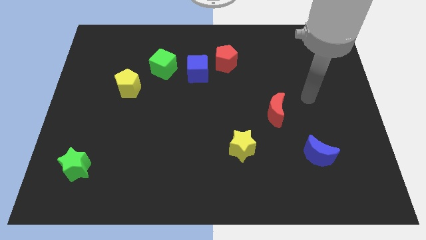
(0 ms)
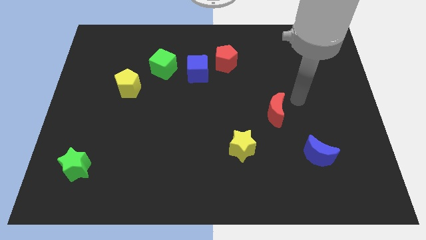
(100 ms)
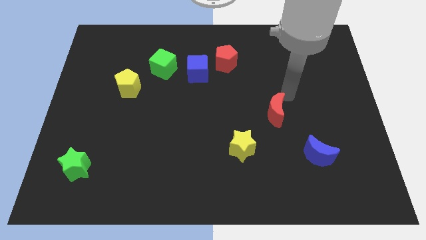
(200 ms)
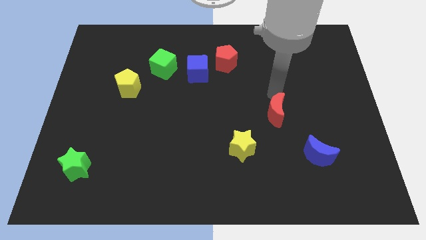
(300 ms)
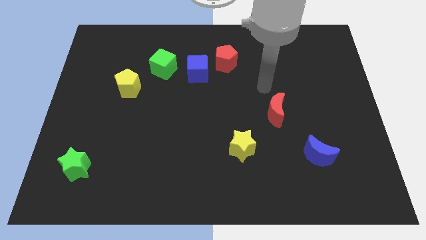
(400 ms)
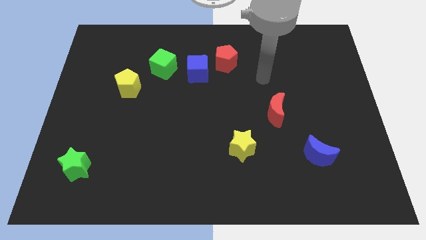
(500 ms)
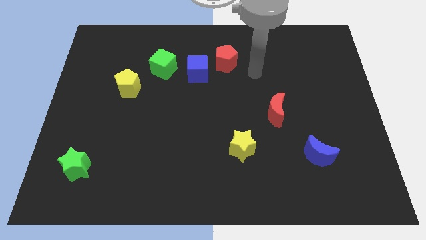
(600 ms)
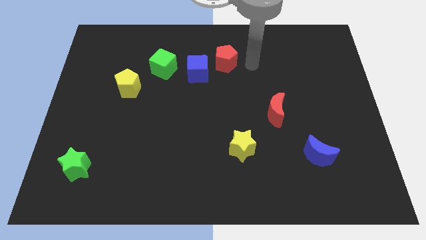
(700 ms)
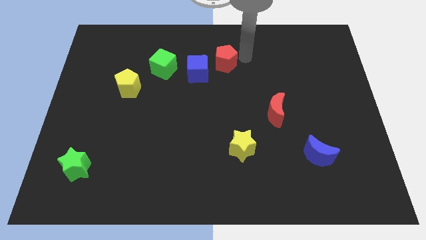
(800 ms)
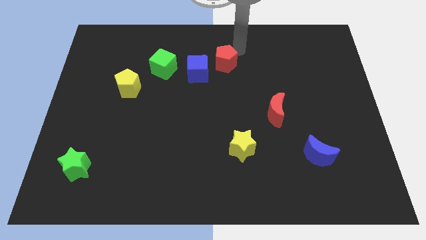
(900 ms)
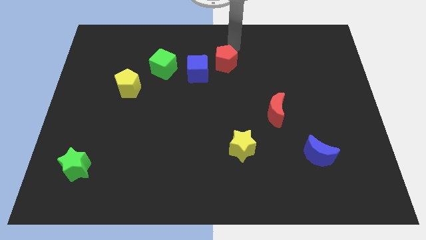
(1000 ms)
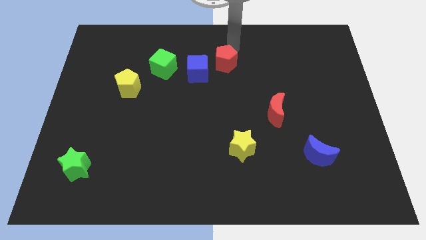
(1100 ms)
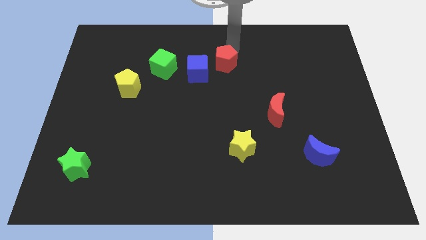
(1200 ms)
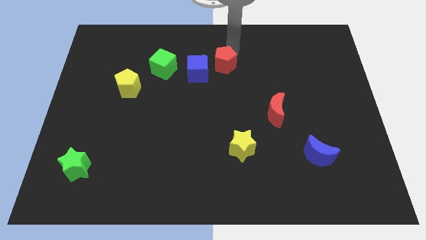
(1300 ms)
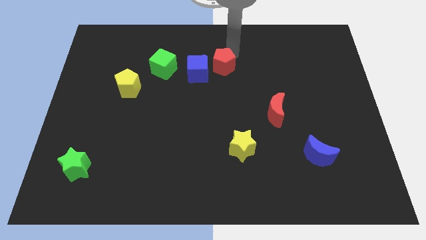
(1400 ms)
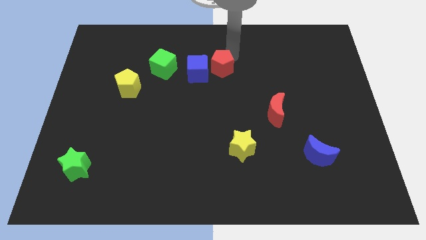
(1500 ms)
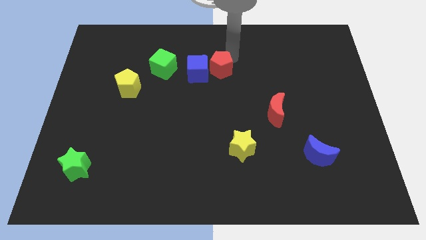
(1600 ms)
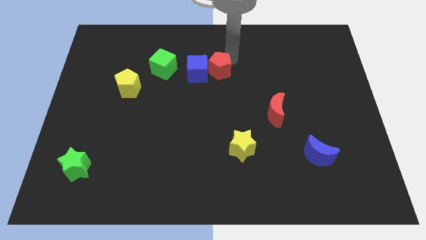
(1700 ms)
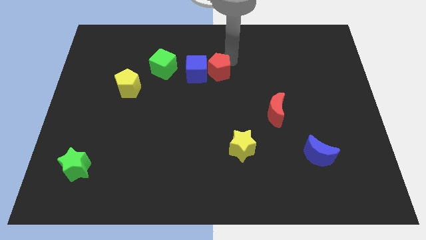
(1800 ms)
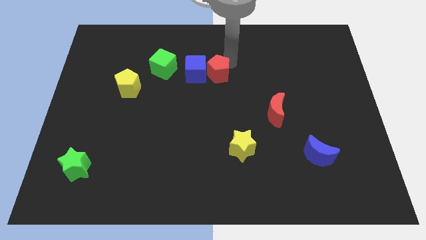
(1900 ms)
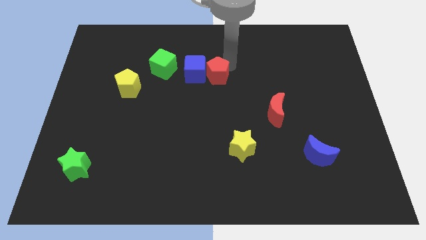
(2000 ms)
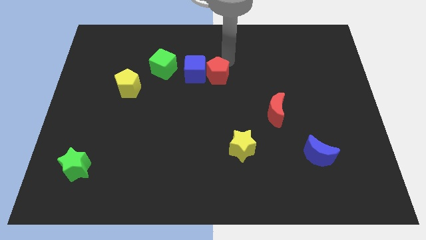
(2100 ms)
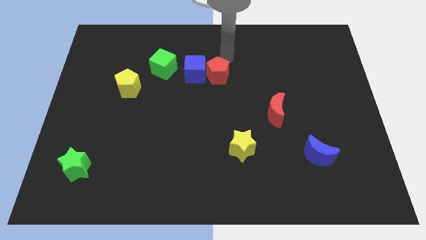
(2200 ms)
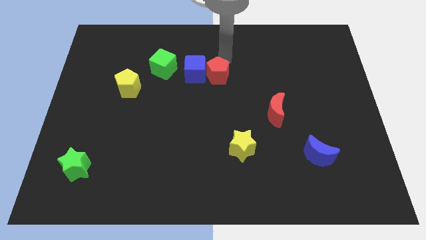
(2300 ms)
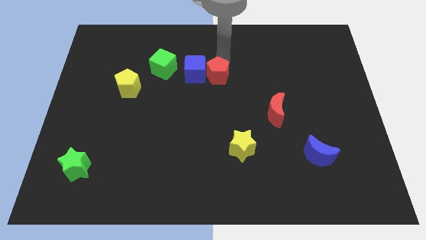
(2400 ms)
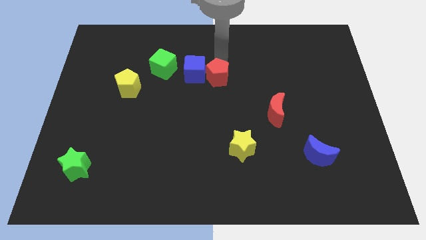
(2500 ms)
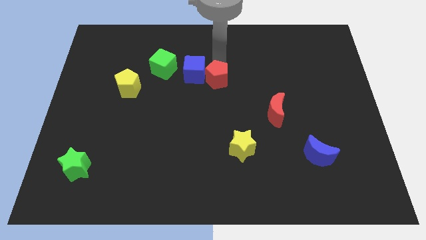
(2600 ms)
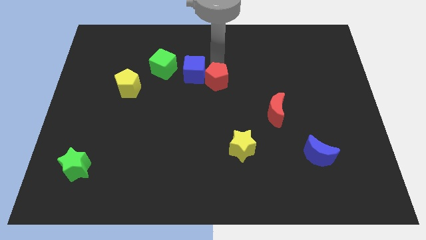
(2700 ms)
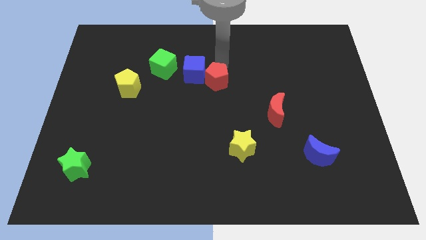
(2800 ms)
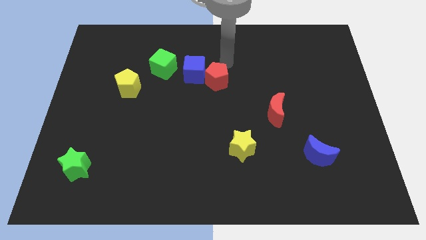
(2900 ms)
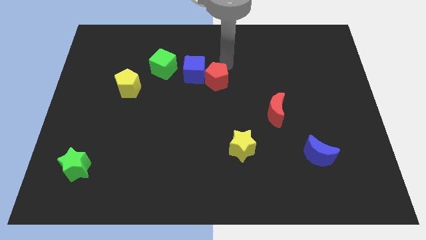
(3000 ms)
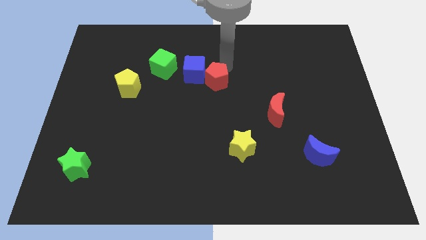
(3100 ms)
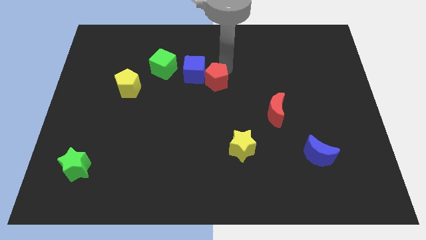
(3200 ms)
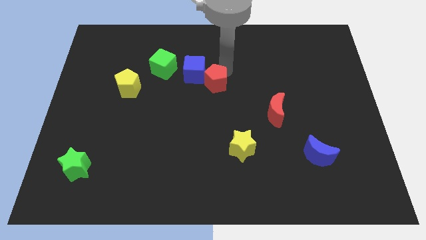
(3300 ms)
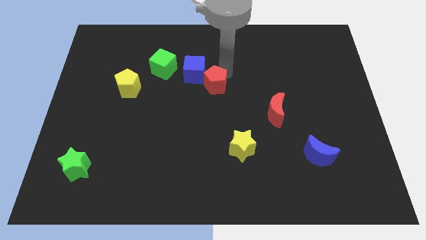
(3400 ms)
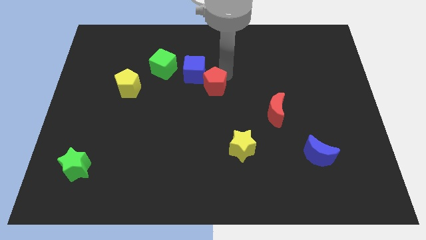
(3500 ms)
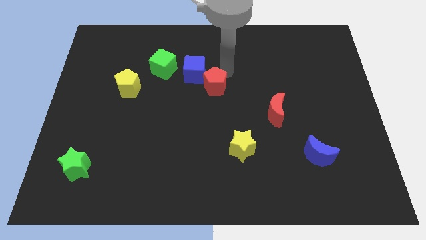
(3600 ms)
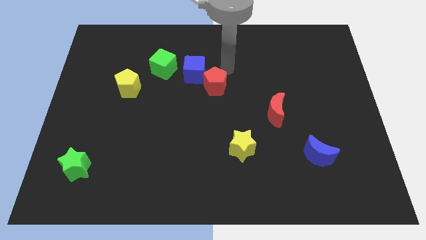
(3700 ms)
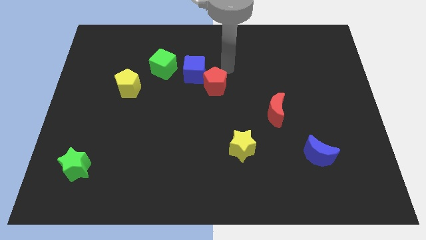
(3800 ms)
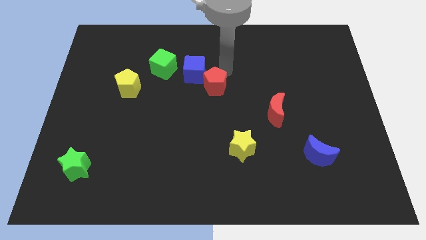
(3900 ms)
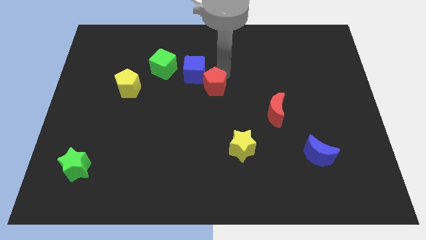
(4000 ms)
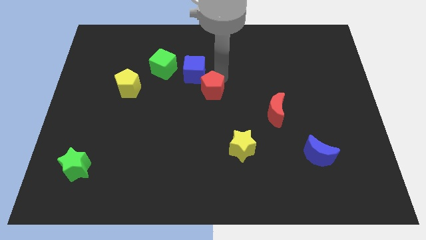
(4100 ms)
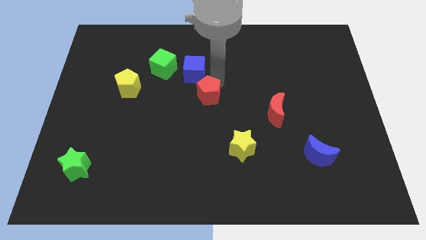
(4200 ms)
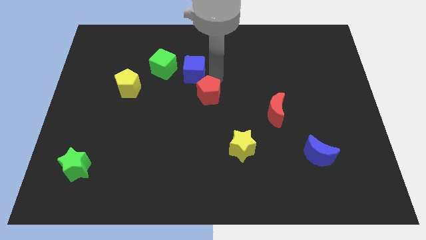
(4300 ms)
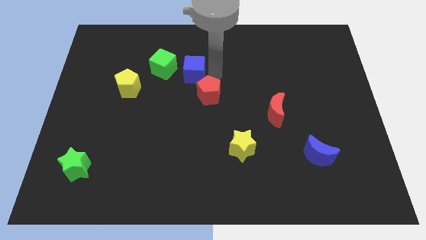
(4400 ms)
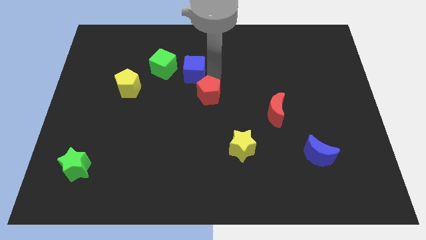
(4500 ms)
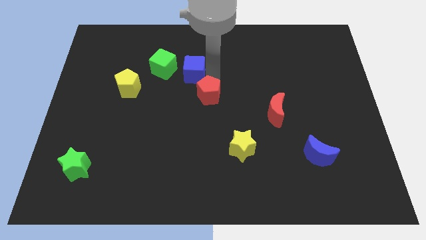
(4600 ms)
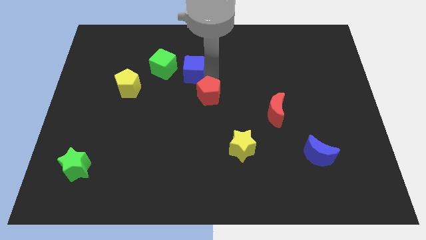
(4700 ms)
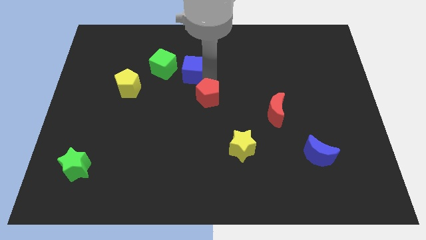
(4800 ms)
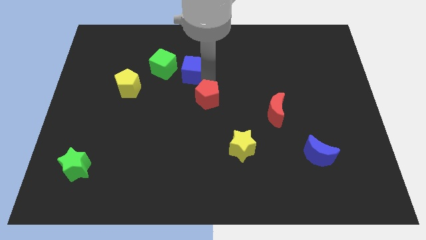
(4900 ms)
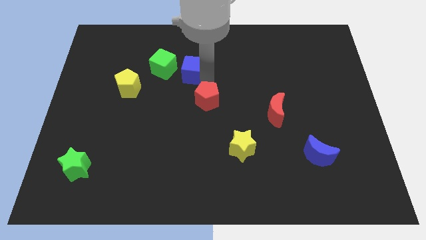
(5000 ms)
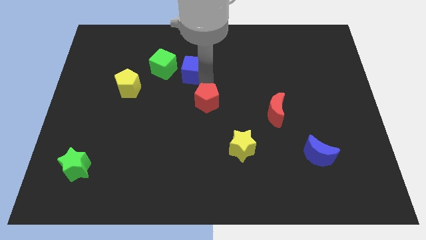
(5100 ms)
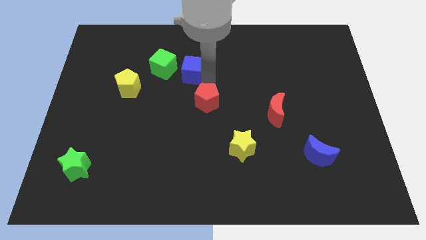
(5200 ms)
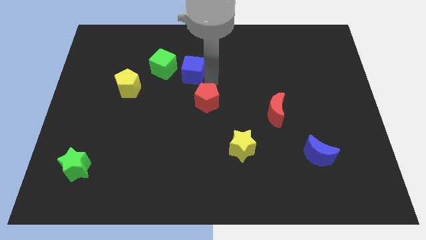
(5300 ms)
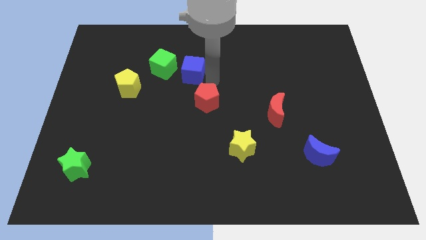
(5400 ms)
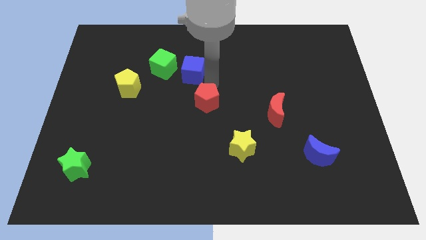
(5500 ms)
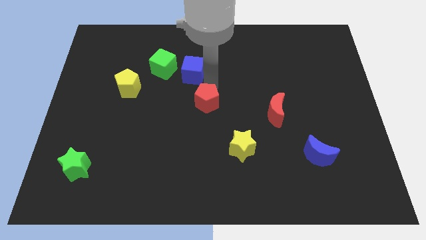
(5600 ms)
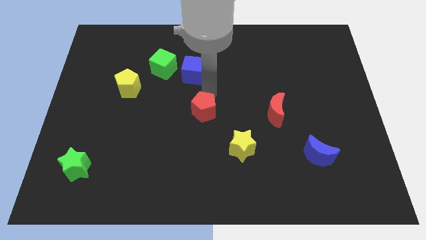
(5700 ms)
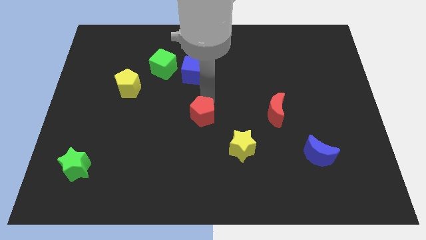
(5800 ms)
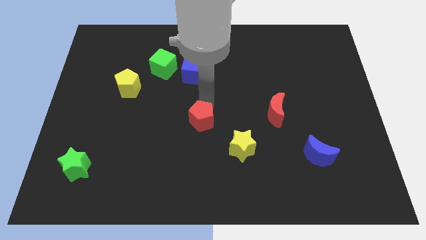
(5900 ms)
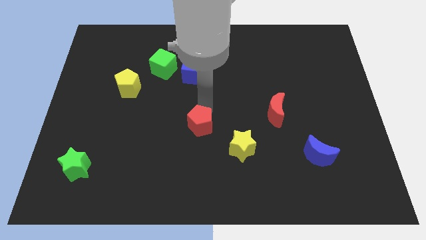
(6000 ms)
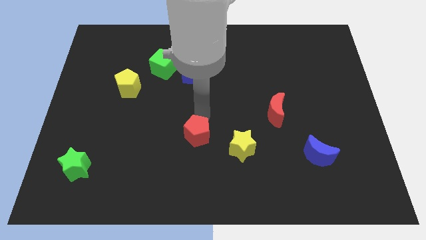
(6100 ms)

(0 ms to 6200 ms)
slide the red pentagon downwards

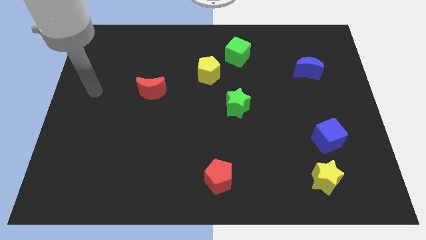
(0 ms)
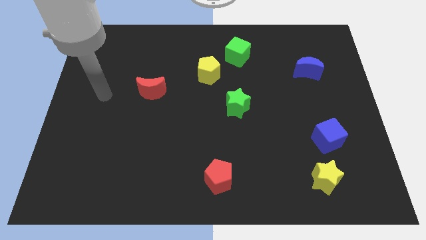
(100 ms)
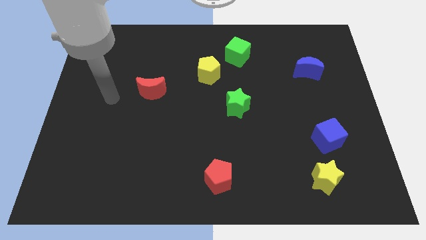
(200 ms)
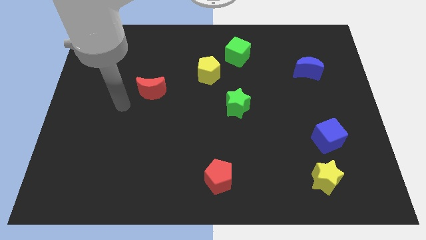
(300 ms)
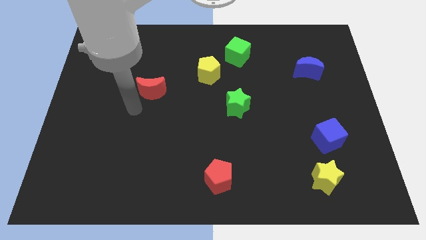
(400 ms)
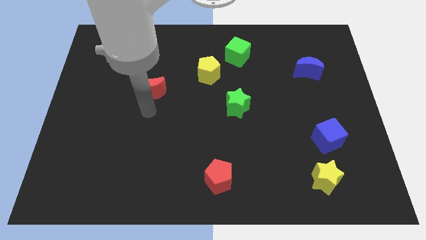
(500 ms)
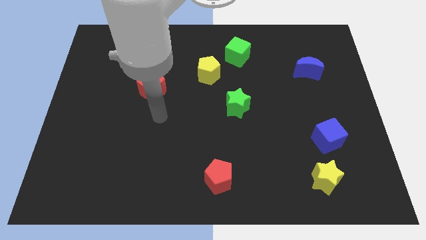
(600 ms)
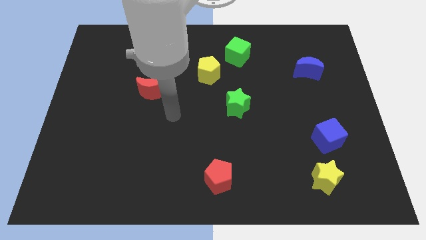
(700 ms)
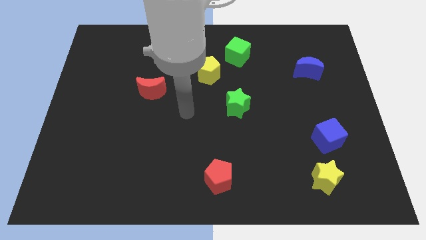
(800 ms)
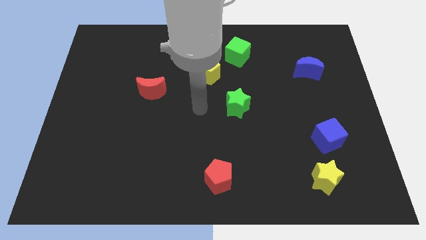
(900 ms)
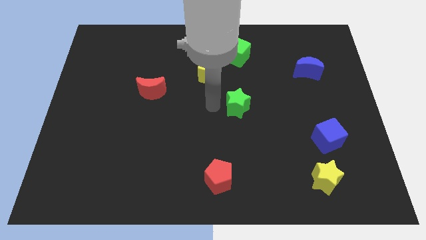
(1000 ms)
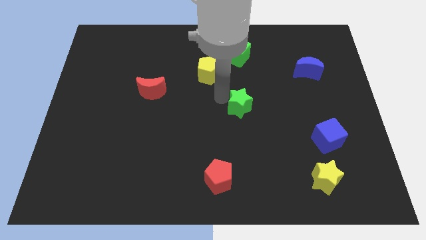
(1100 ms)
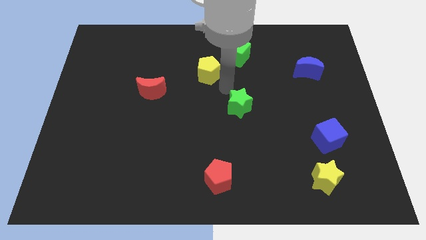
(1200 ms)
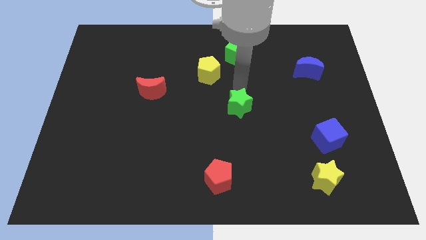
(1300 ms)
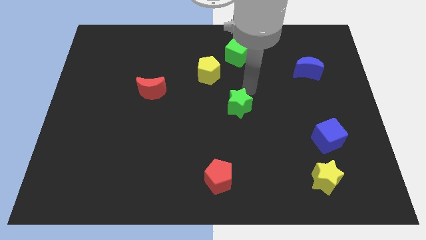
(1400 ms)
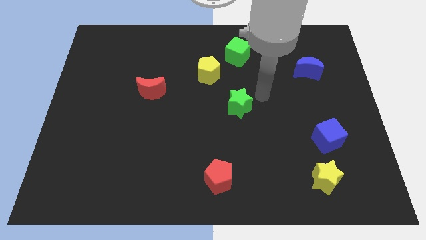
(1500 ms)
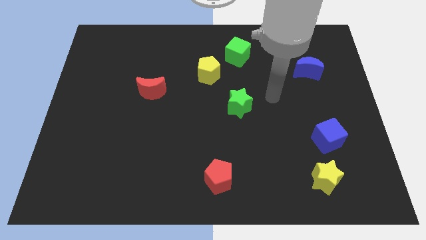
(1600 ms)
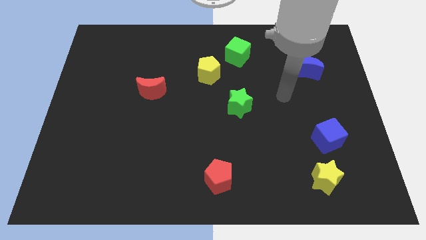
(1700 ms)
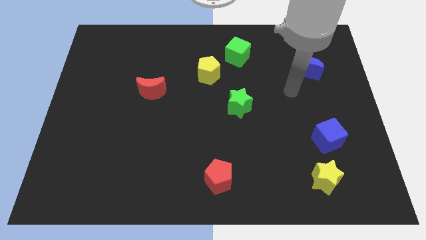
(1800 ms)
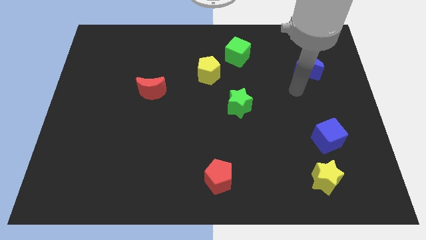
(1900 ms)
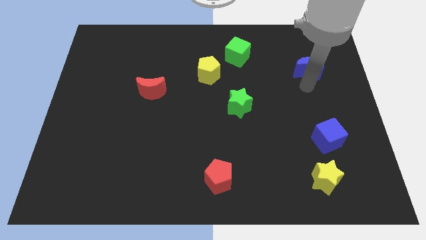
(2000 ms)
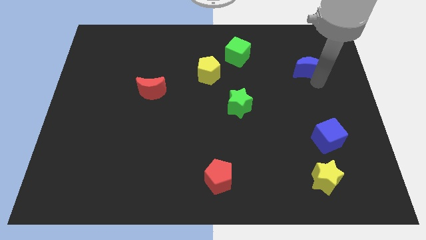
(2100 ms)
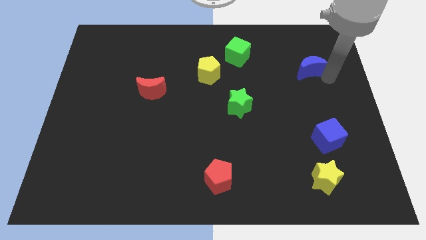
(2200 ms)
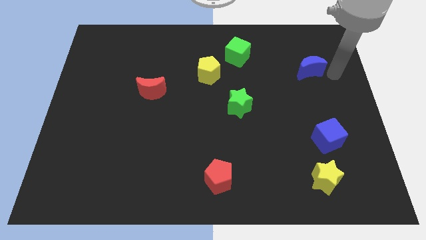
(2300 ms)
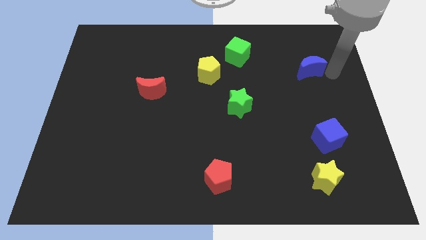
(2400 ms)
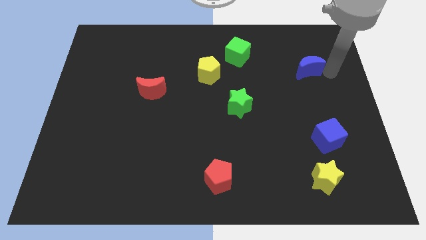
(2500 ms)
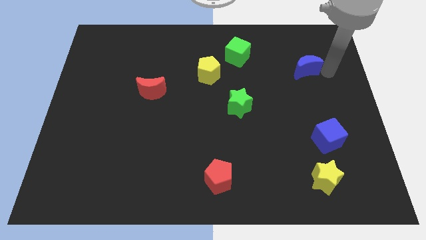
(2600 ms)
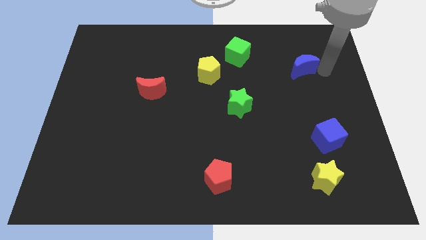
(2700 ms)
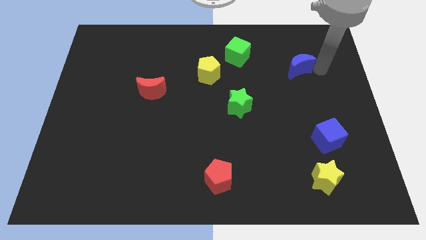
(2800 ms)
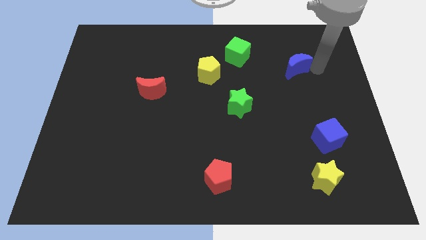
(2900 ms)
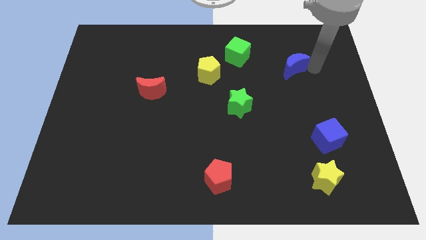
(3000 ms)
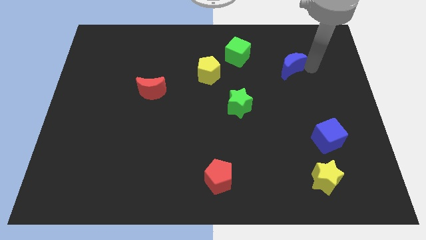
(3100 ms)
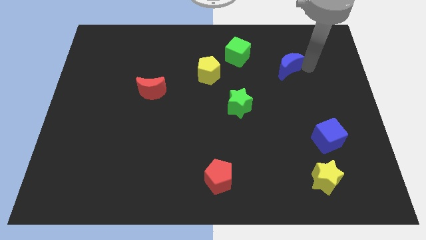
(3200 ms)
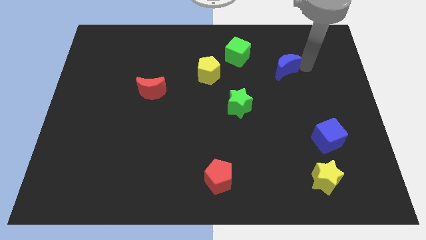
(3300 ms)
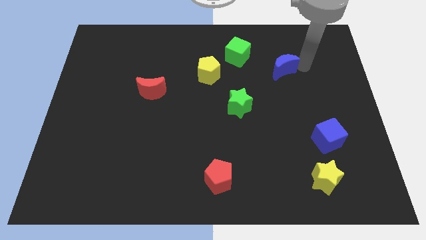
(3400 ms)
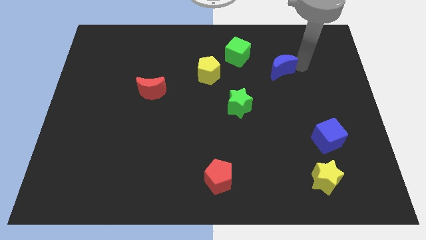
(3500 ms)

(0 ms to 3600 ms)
slide the blue moon to the left a little bit
